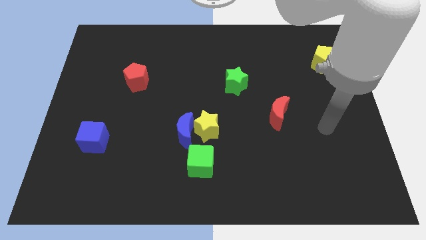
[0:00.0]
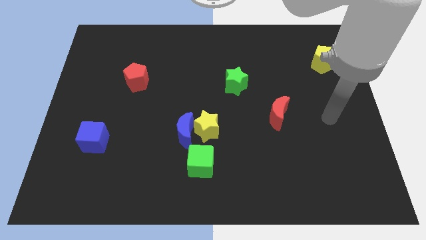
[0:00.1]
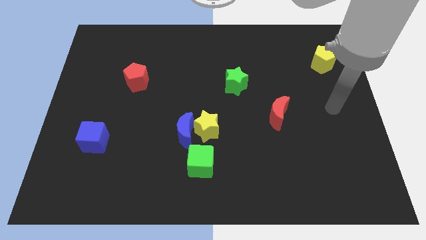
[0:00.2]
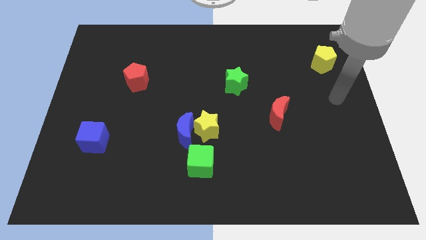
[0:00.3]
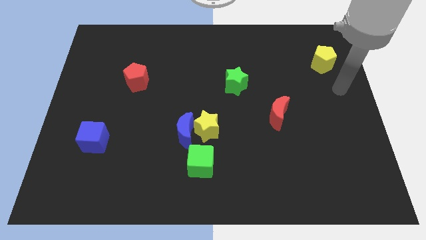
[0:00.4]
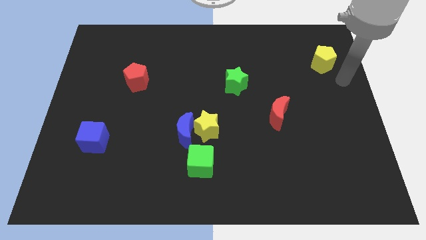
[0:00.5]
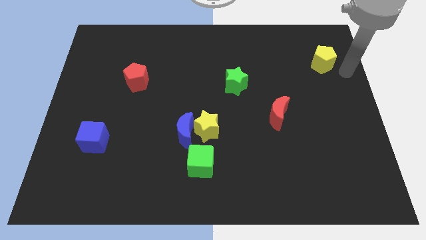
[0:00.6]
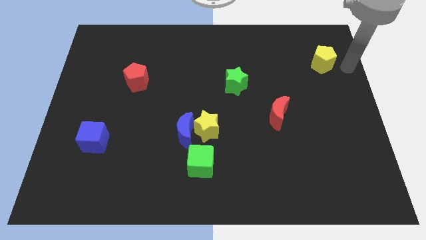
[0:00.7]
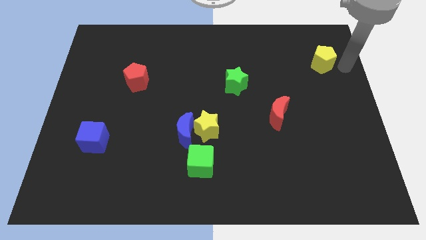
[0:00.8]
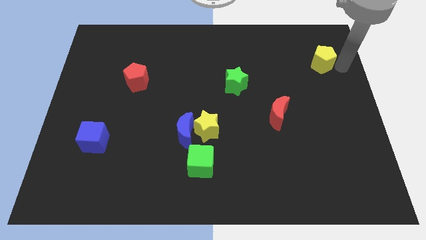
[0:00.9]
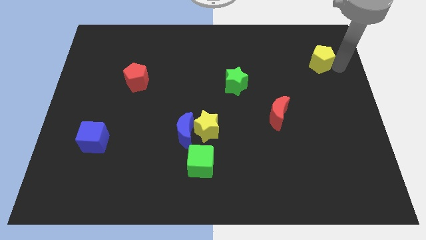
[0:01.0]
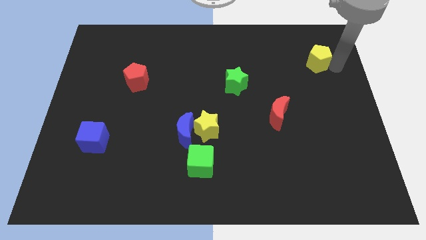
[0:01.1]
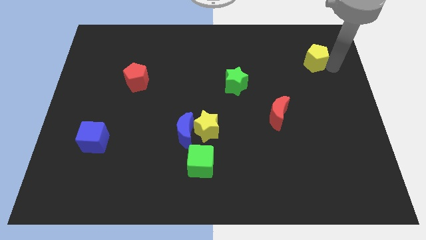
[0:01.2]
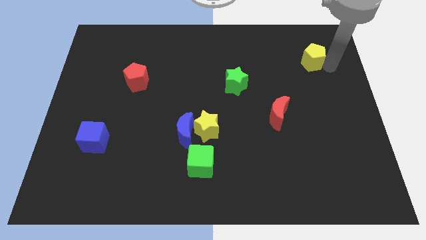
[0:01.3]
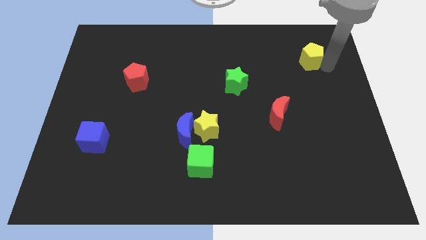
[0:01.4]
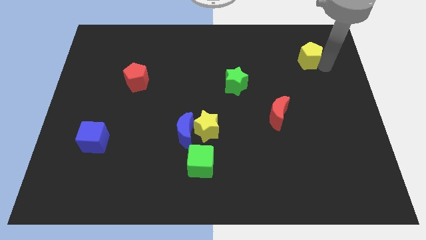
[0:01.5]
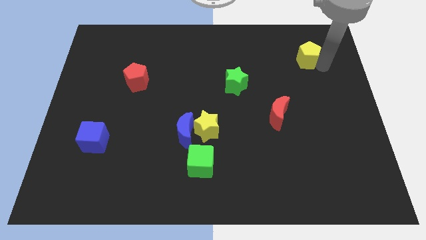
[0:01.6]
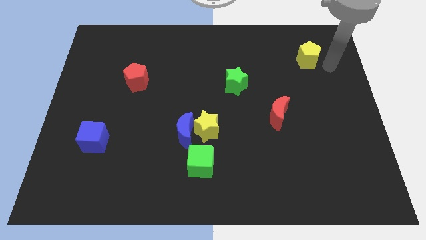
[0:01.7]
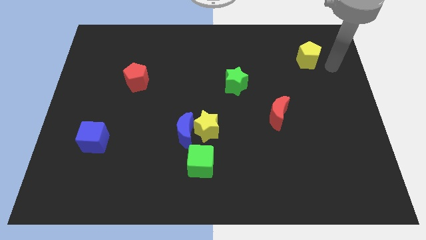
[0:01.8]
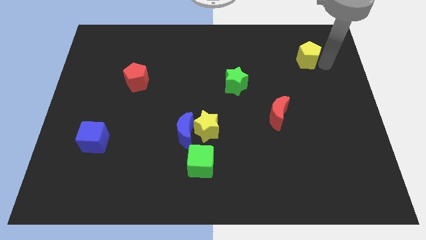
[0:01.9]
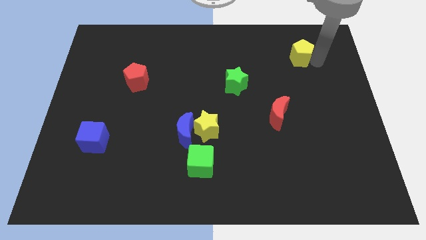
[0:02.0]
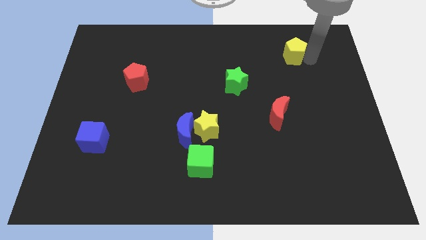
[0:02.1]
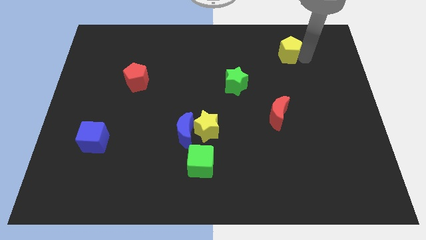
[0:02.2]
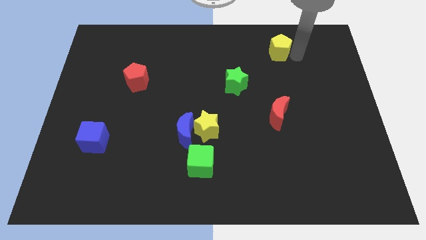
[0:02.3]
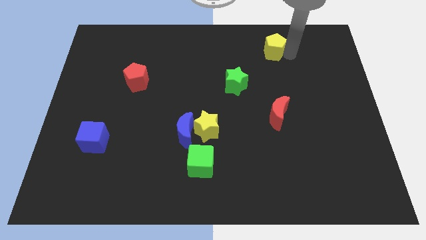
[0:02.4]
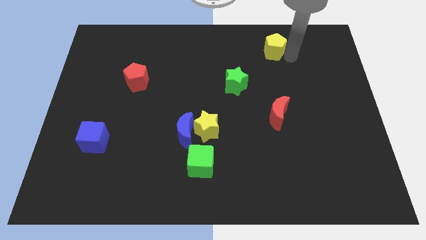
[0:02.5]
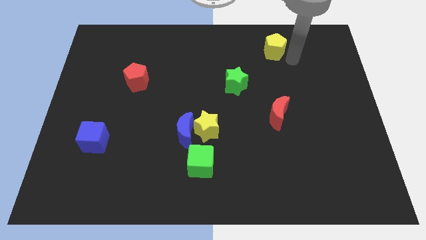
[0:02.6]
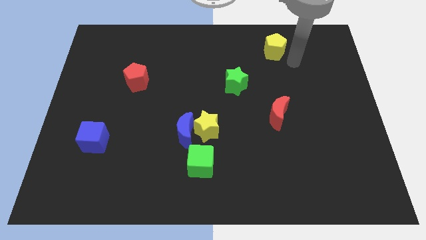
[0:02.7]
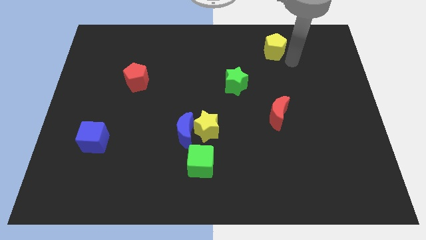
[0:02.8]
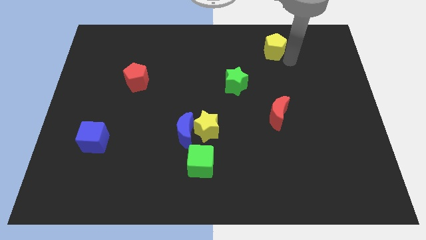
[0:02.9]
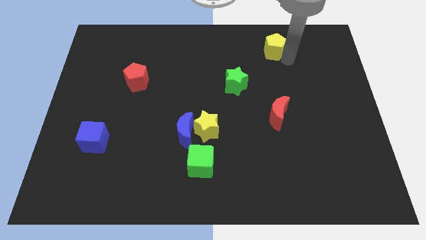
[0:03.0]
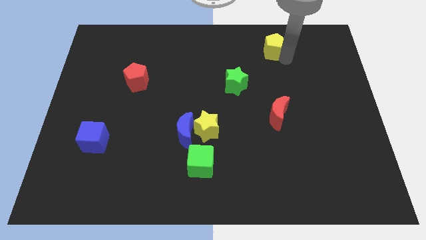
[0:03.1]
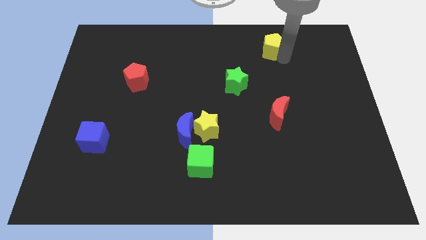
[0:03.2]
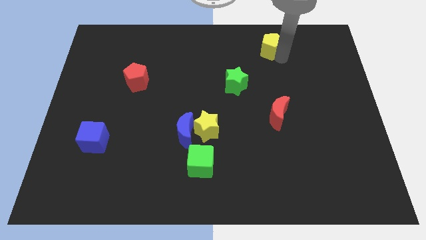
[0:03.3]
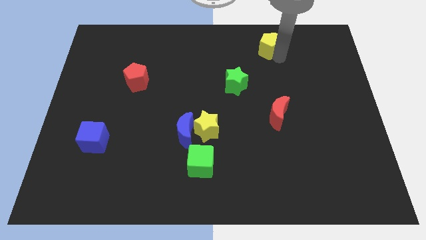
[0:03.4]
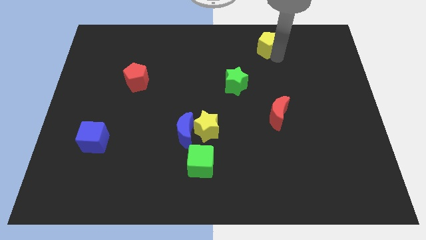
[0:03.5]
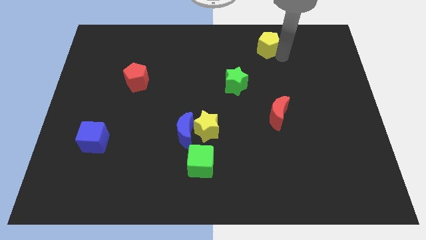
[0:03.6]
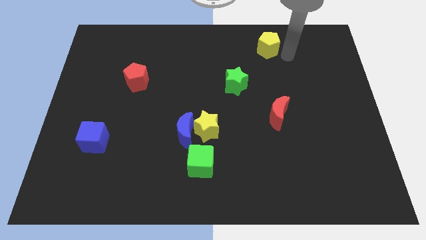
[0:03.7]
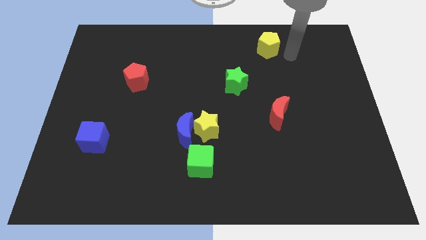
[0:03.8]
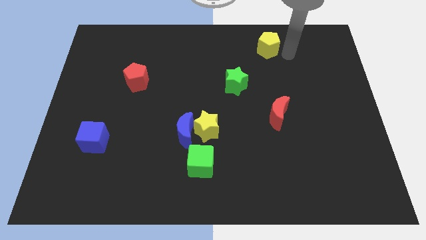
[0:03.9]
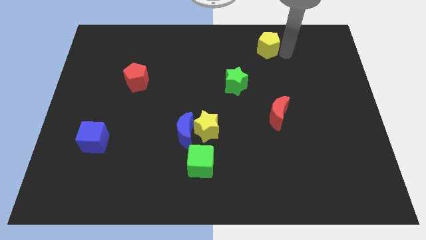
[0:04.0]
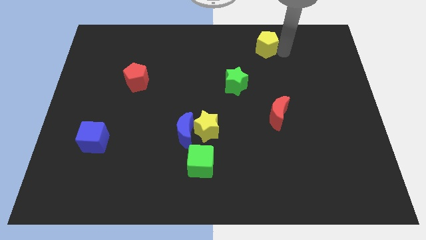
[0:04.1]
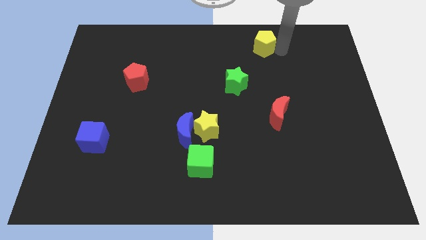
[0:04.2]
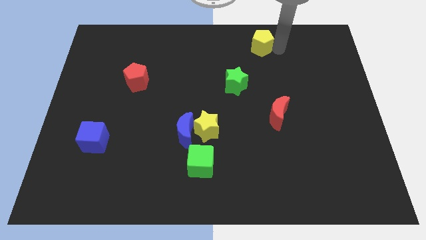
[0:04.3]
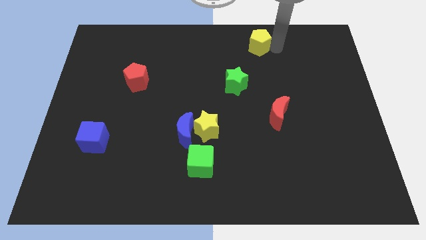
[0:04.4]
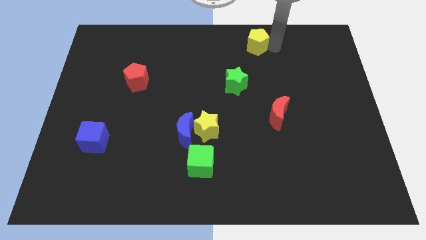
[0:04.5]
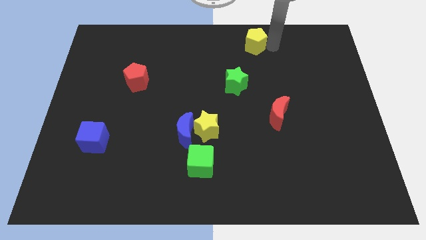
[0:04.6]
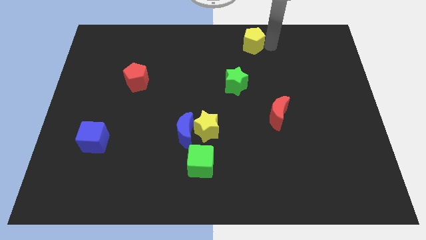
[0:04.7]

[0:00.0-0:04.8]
push the yellow pentagon to the top side

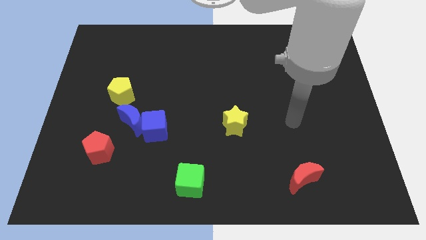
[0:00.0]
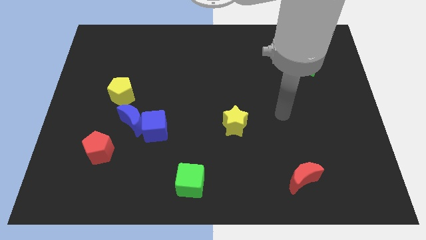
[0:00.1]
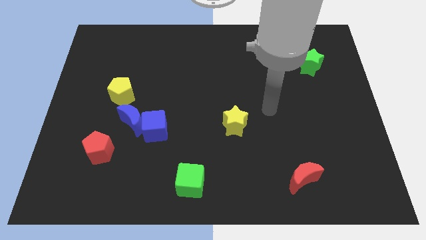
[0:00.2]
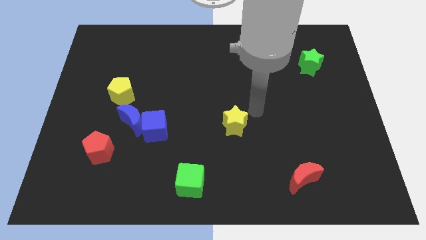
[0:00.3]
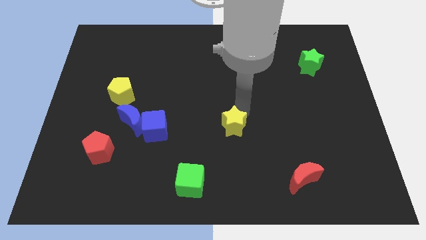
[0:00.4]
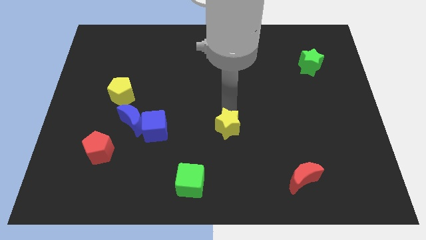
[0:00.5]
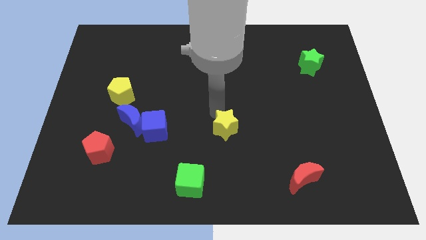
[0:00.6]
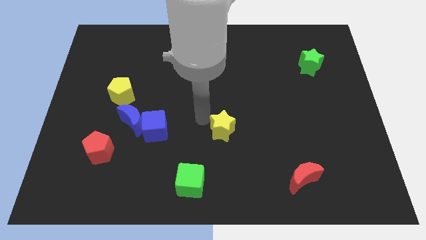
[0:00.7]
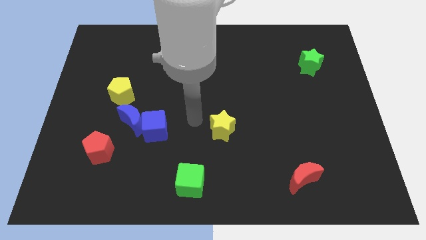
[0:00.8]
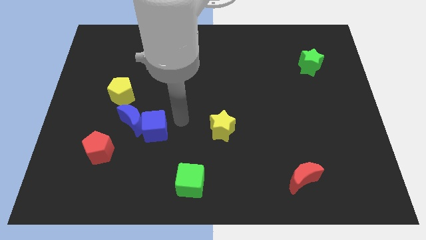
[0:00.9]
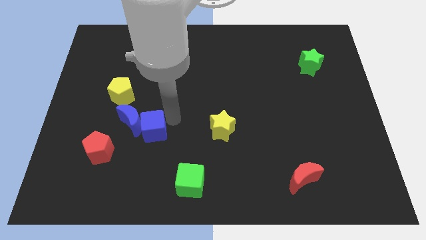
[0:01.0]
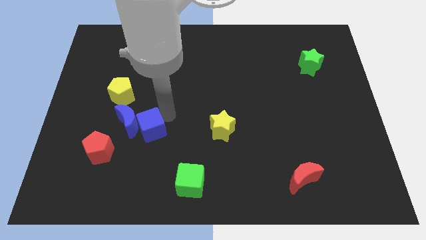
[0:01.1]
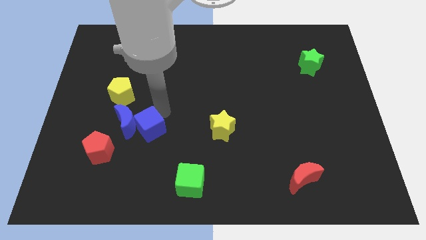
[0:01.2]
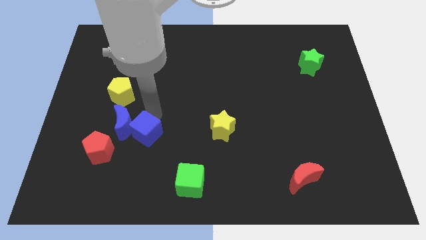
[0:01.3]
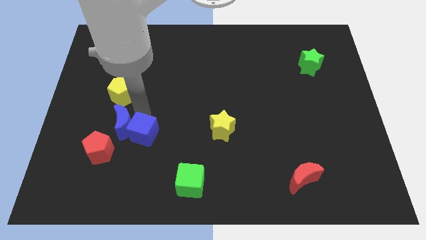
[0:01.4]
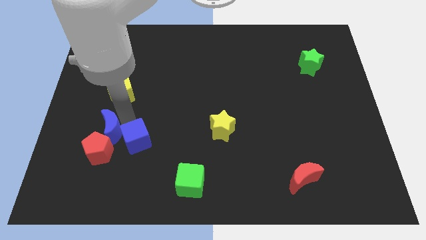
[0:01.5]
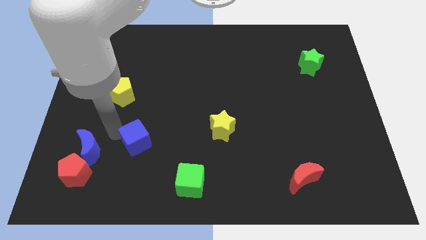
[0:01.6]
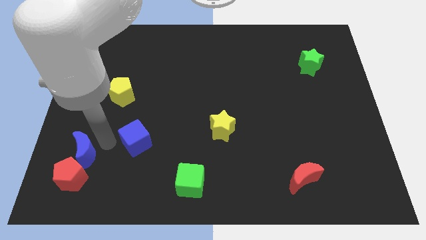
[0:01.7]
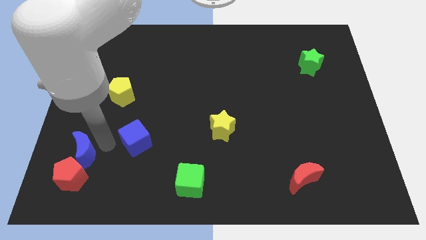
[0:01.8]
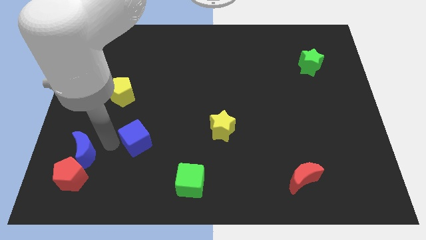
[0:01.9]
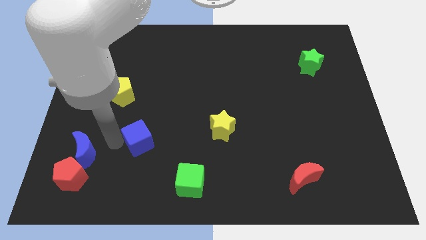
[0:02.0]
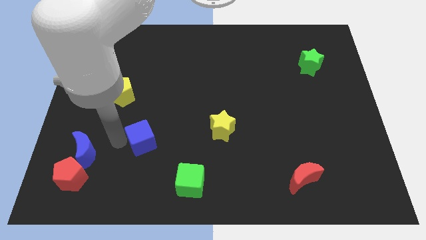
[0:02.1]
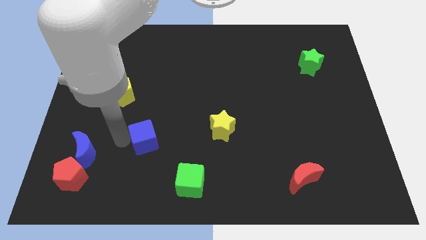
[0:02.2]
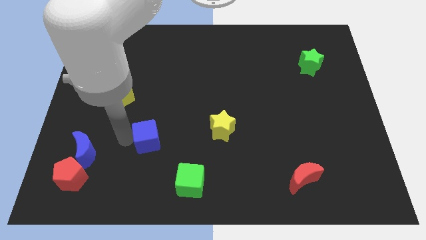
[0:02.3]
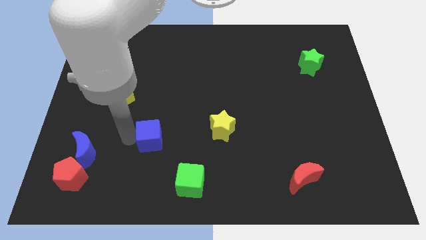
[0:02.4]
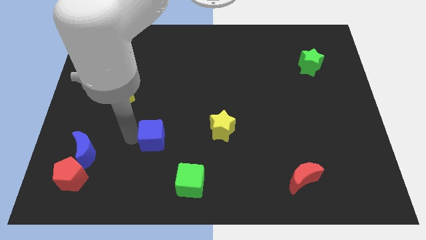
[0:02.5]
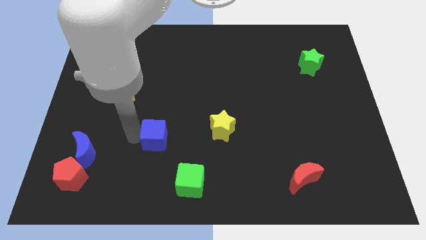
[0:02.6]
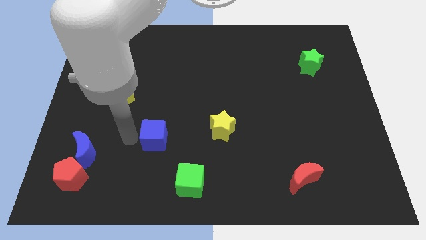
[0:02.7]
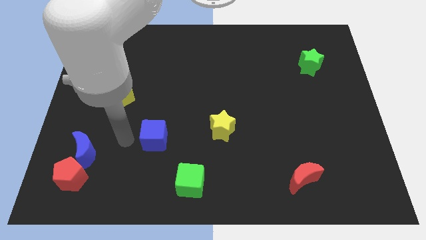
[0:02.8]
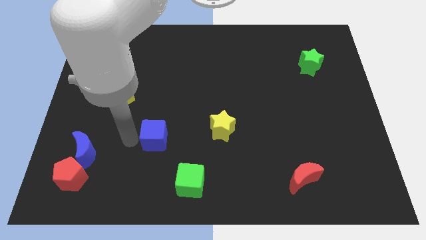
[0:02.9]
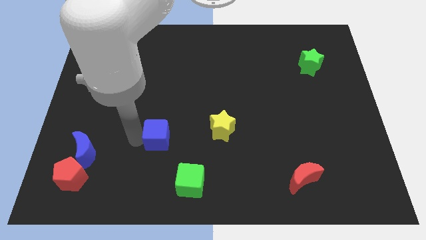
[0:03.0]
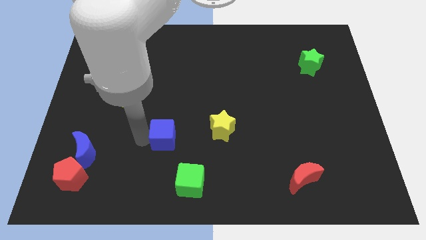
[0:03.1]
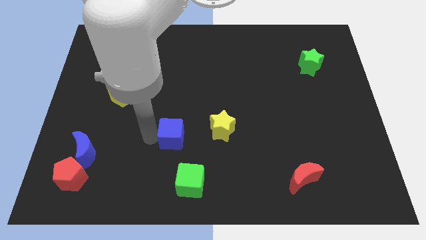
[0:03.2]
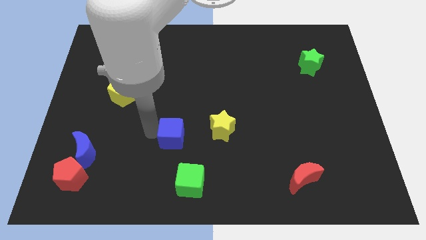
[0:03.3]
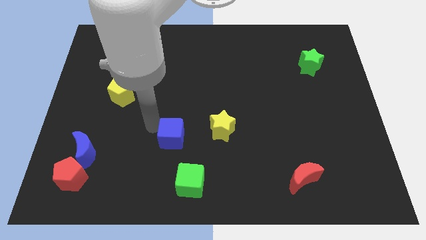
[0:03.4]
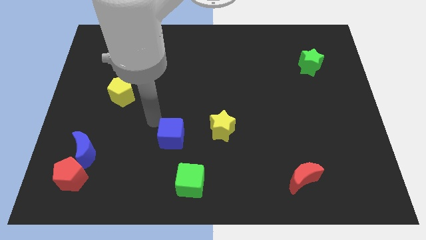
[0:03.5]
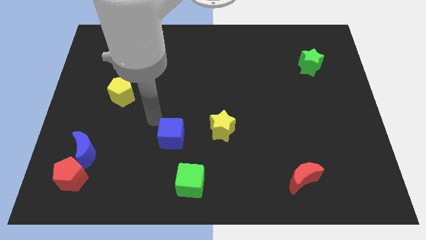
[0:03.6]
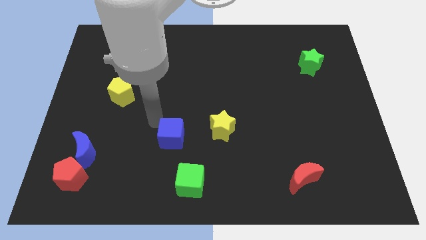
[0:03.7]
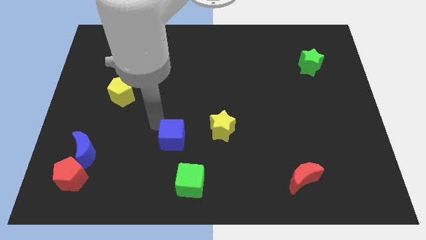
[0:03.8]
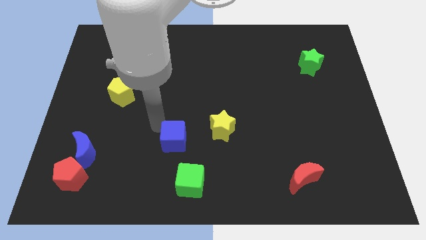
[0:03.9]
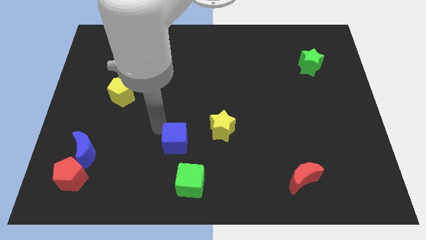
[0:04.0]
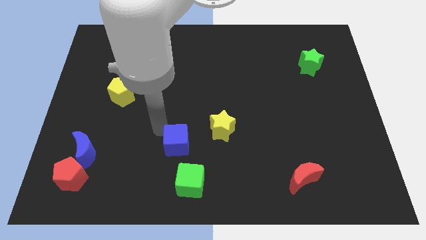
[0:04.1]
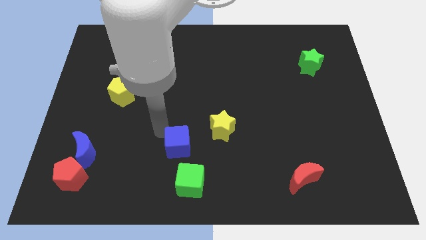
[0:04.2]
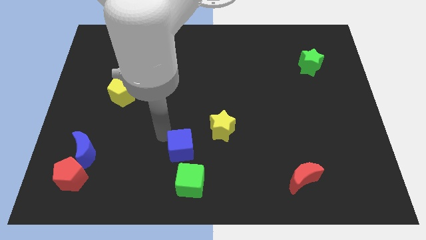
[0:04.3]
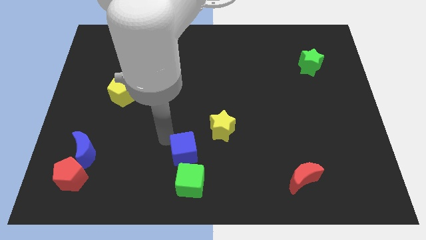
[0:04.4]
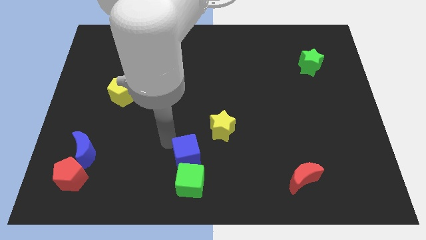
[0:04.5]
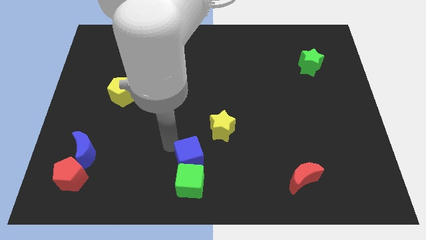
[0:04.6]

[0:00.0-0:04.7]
move the blue cube to the bottom
